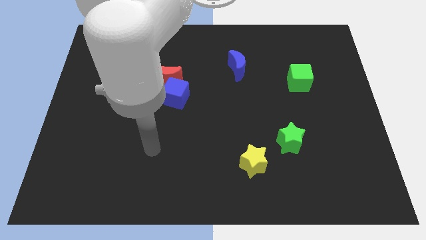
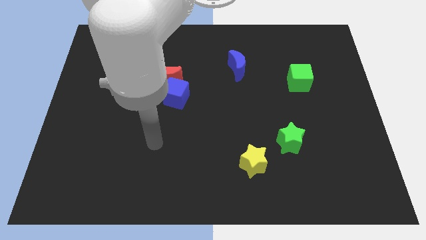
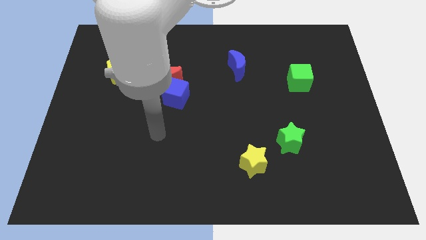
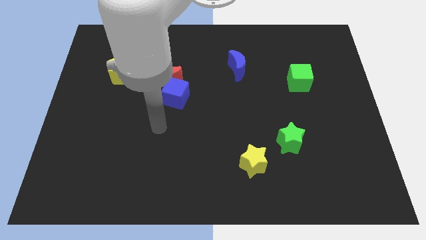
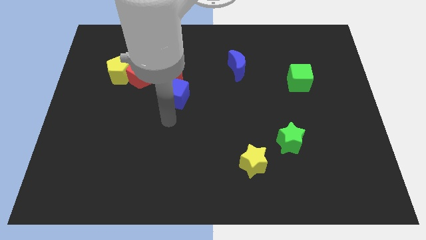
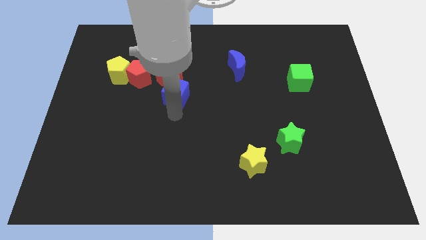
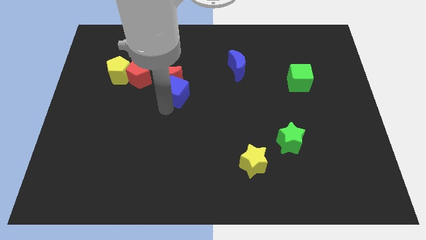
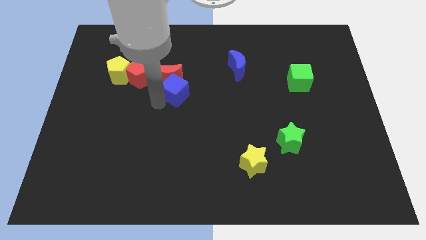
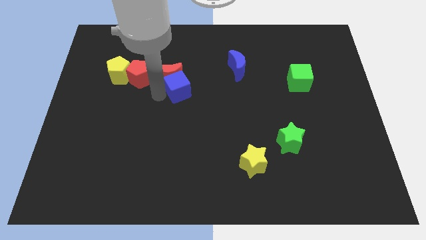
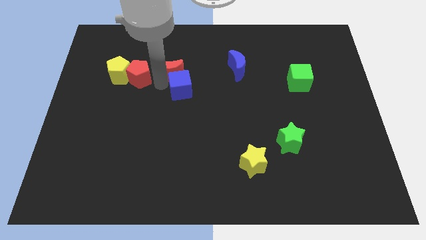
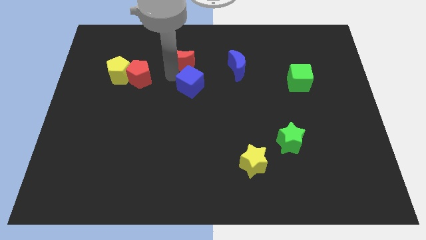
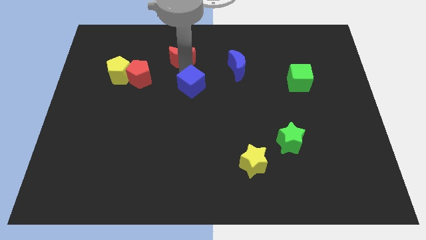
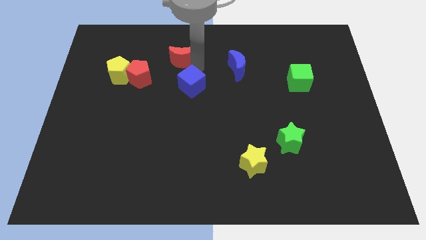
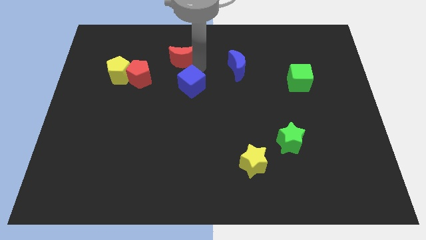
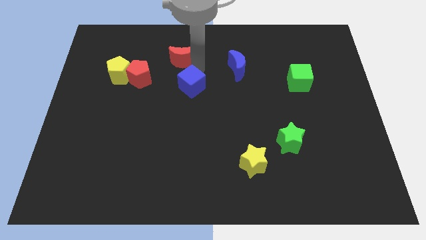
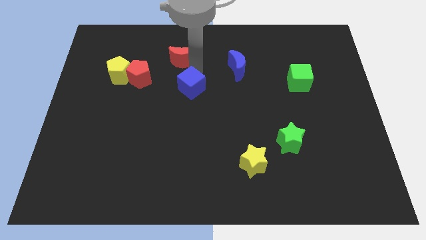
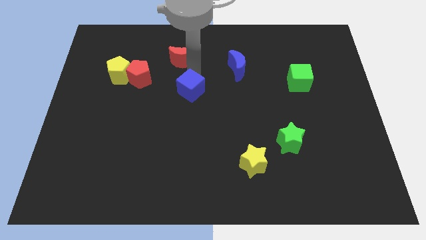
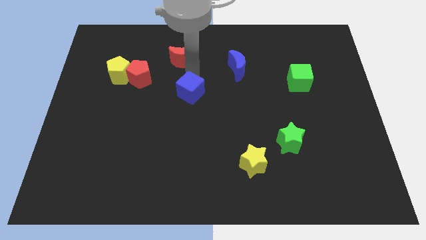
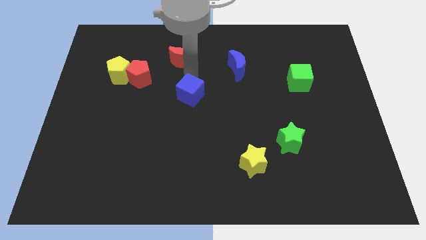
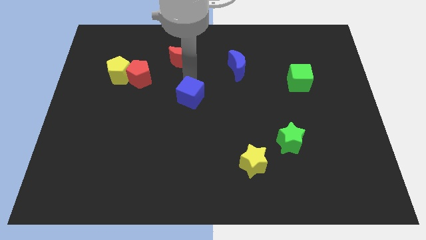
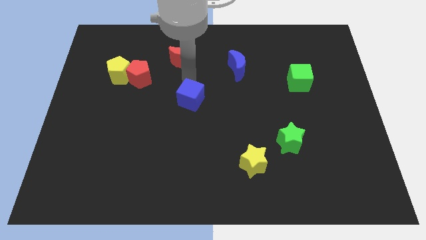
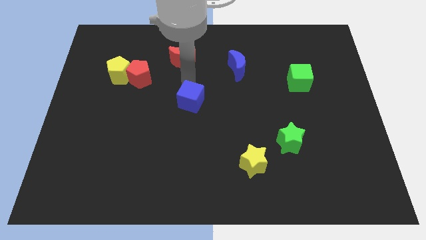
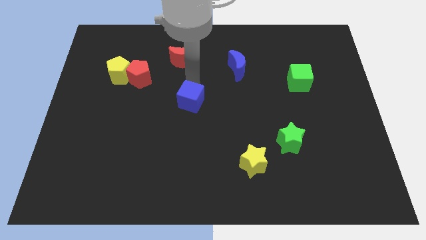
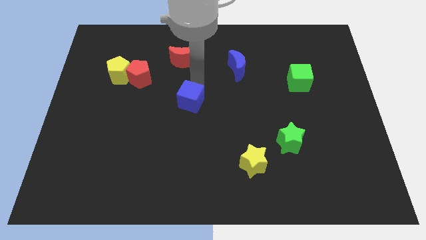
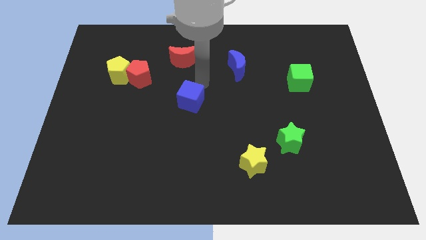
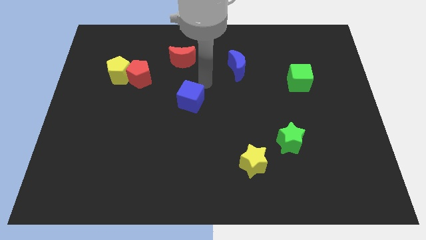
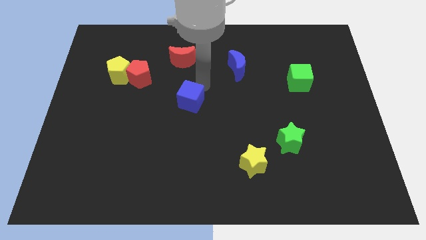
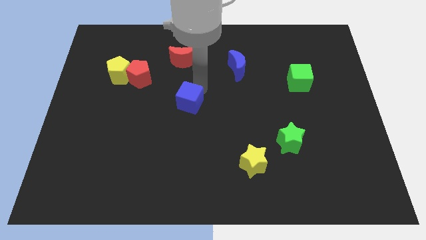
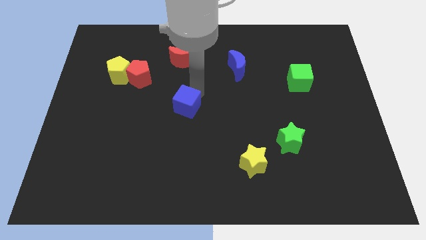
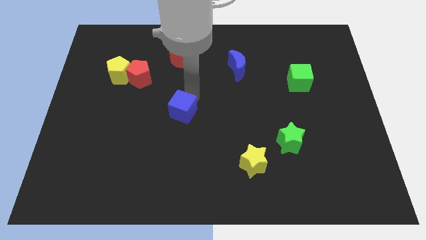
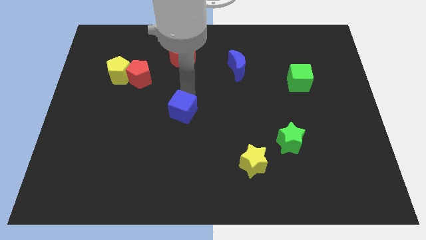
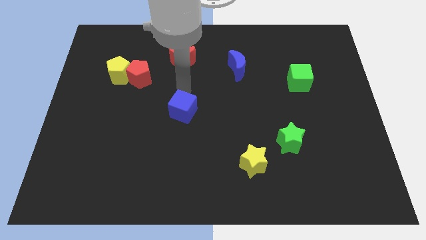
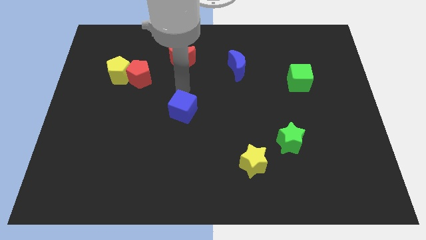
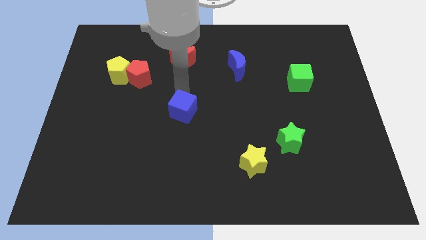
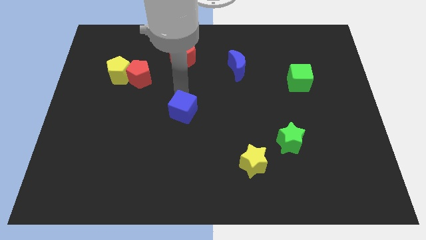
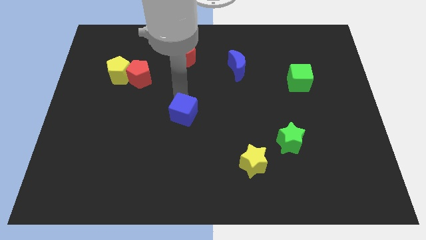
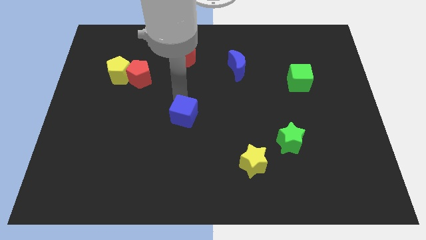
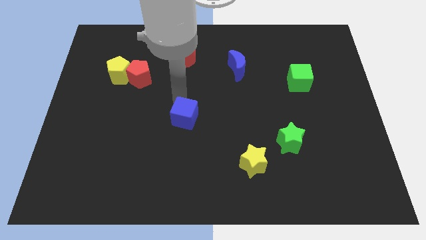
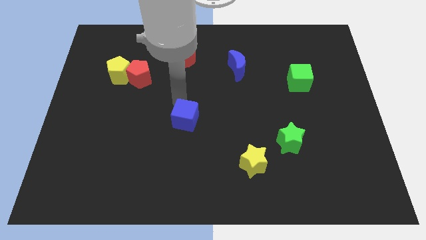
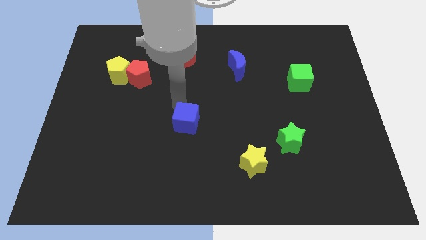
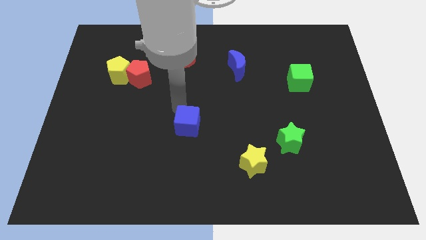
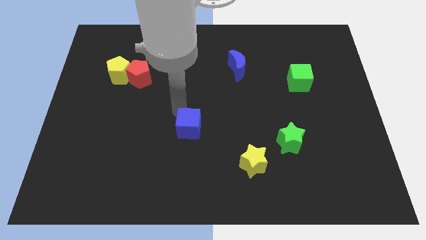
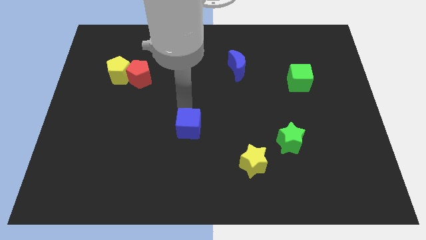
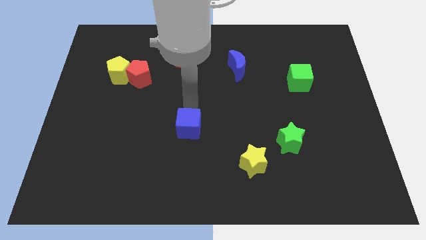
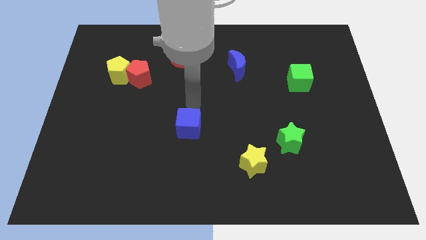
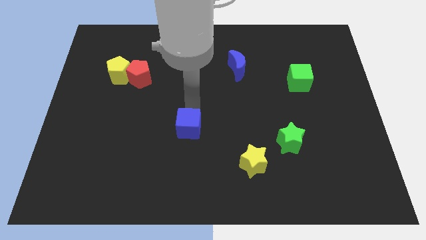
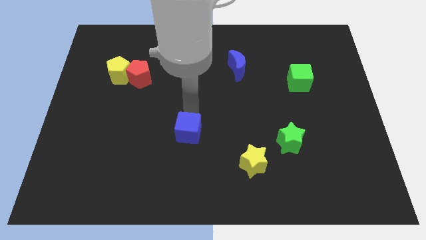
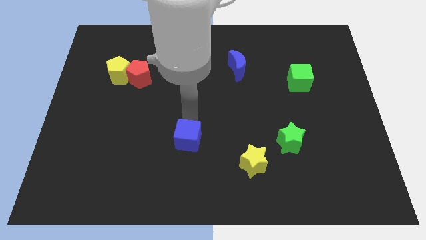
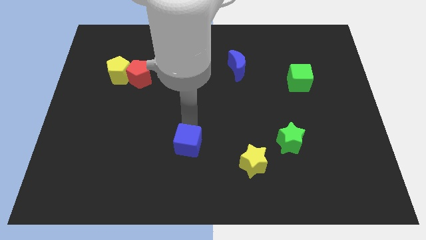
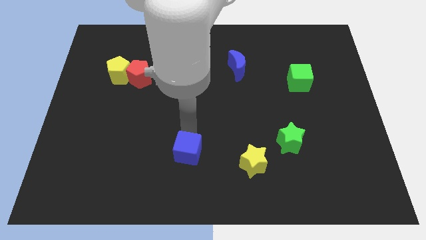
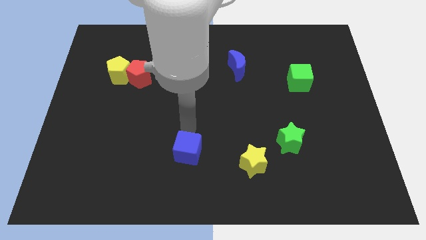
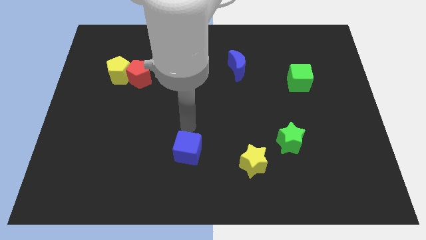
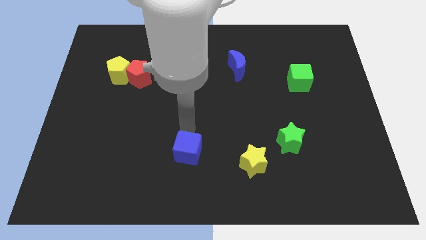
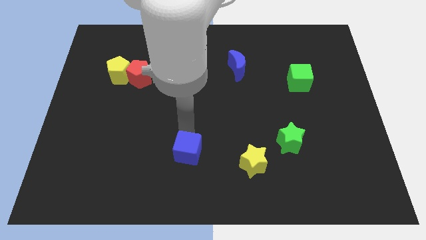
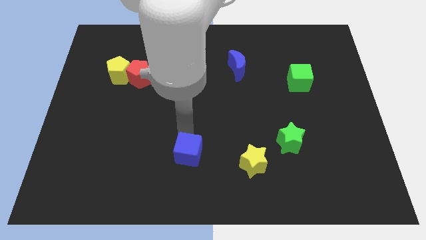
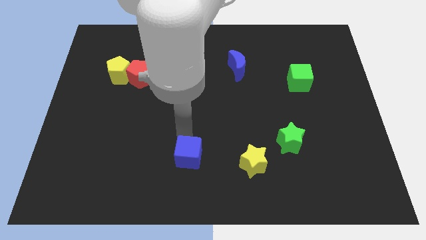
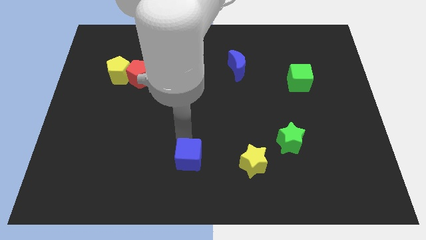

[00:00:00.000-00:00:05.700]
push the blue cube to the bottom side

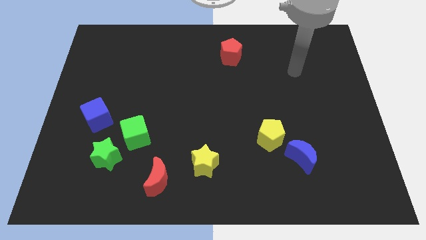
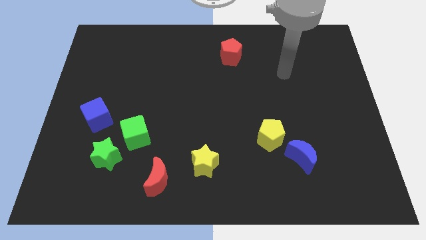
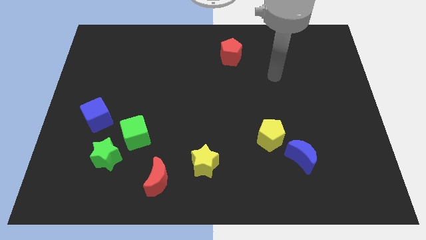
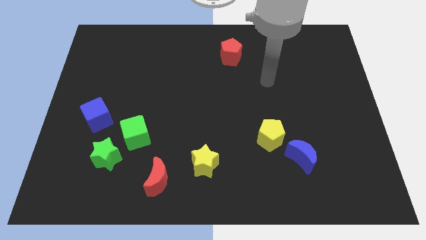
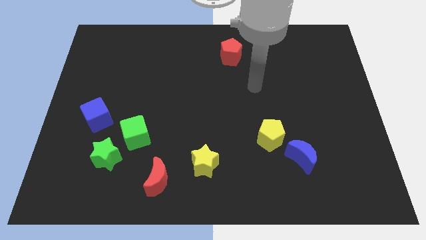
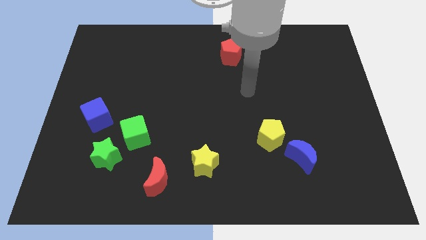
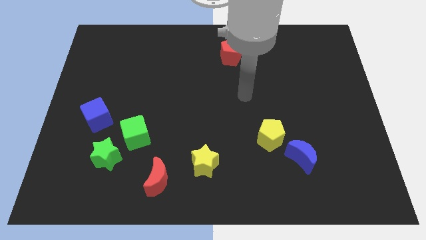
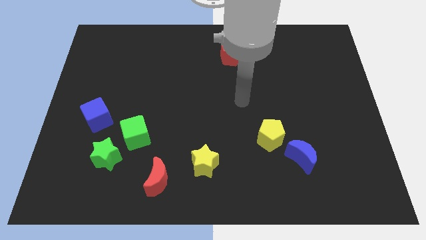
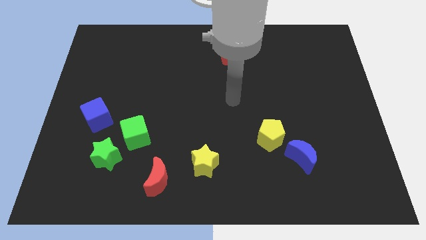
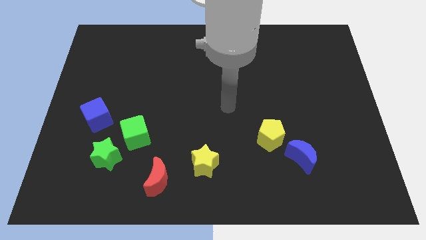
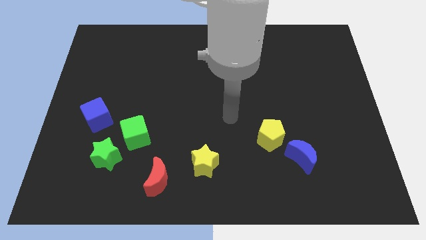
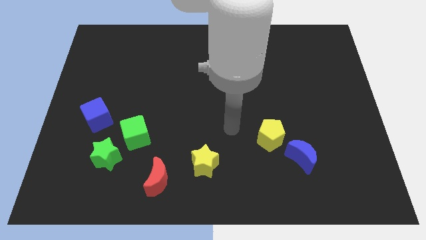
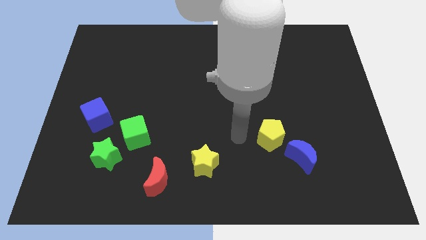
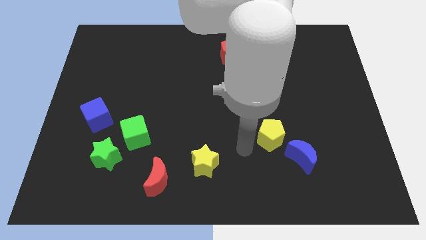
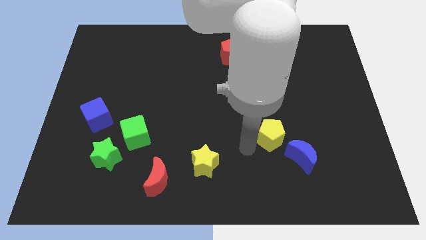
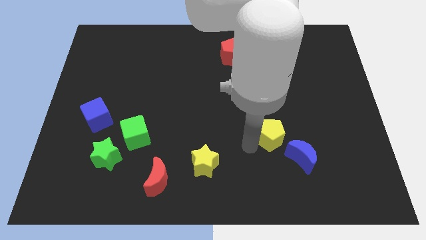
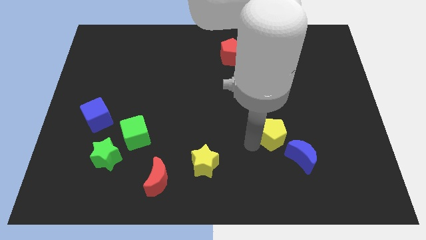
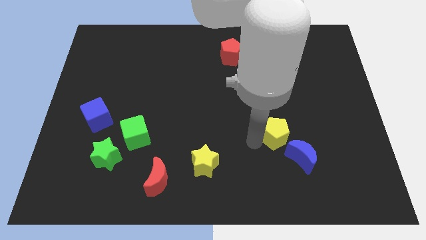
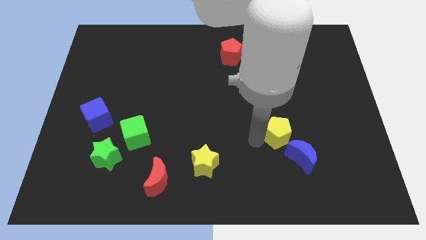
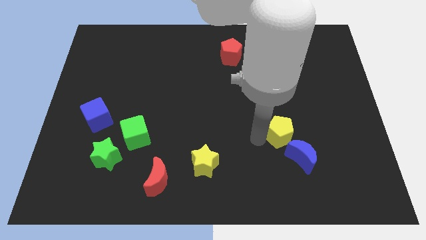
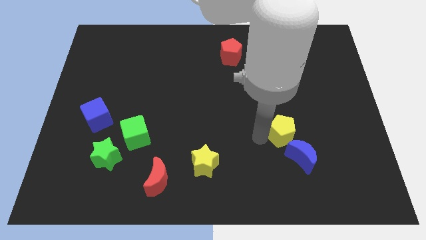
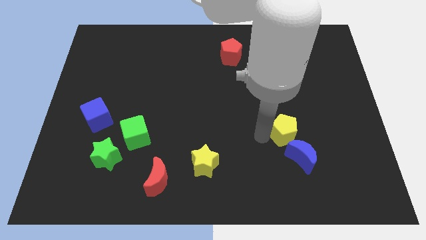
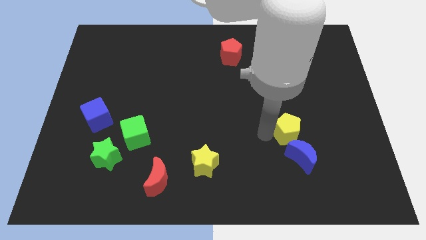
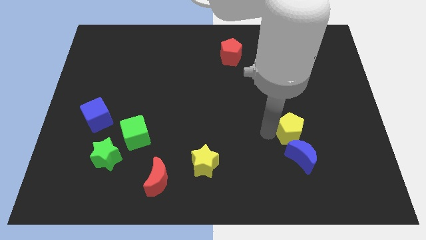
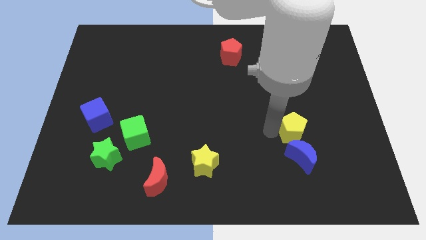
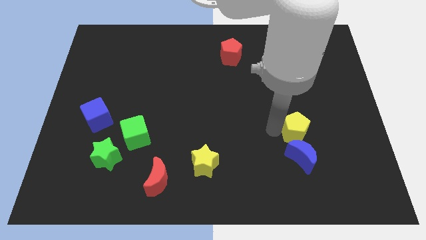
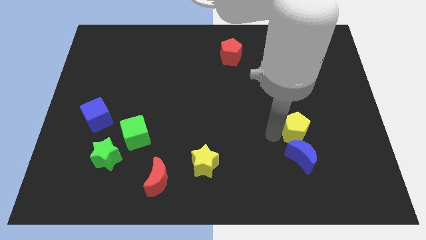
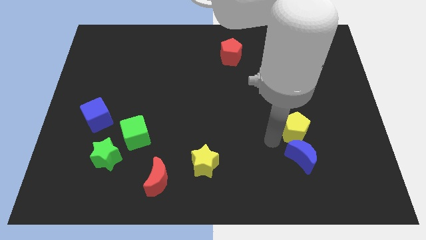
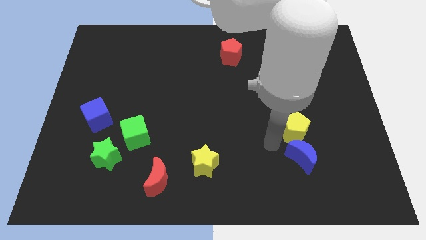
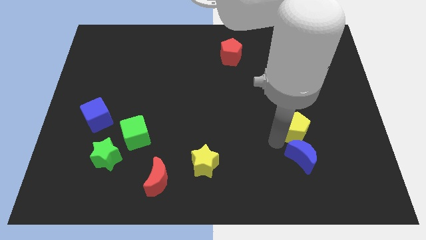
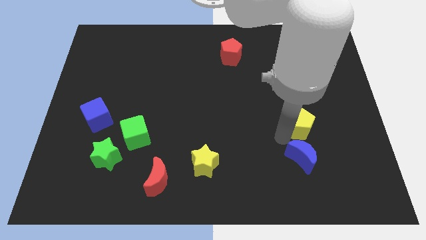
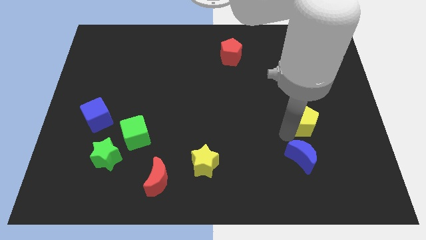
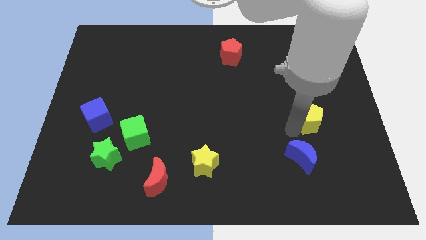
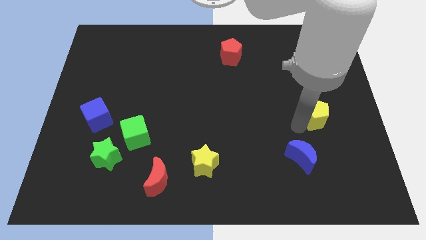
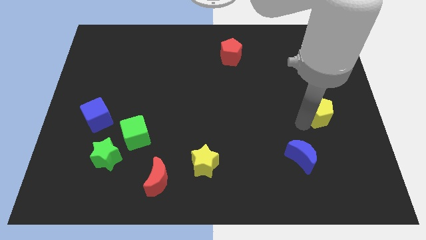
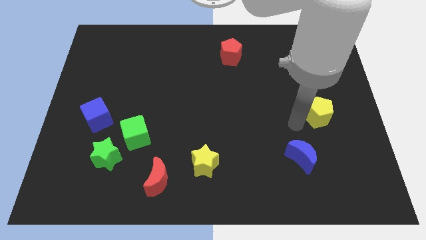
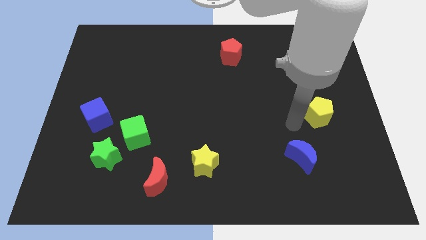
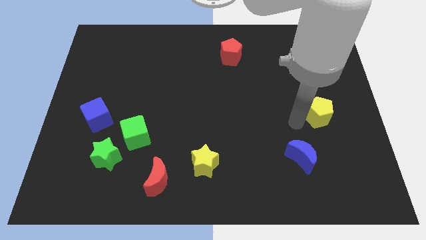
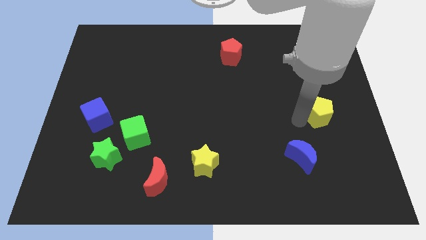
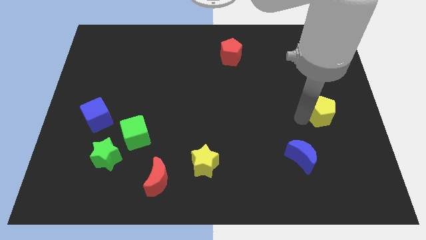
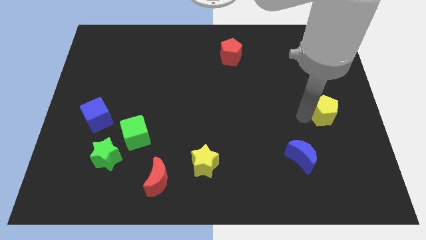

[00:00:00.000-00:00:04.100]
move the yellow pentagon to the center right
